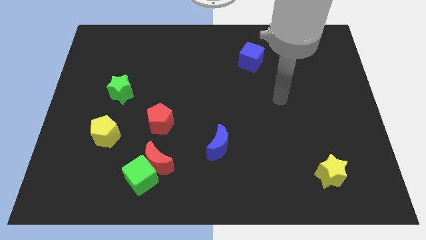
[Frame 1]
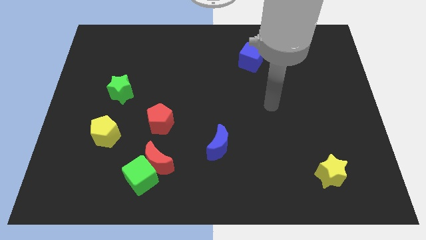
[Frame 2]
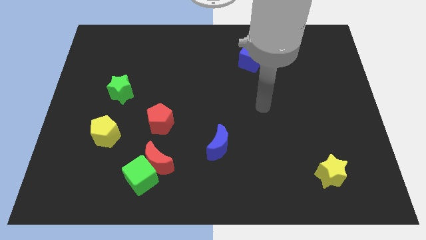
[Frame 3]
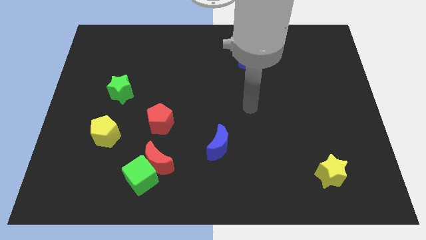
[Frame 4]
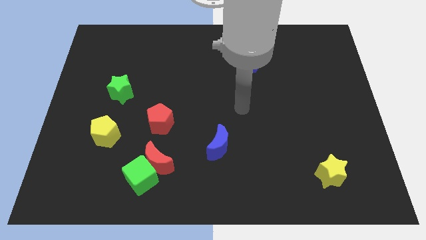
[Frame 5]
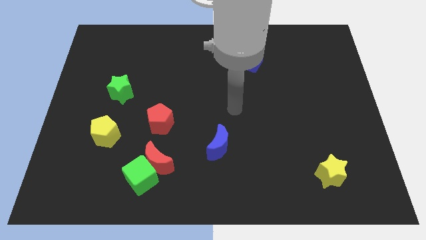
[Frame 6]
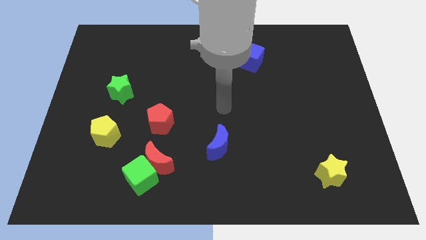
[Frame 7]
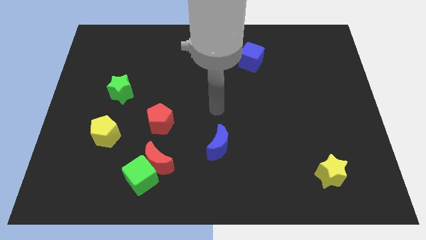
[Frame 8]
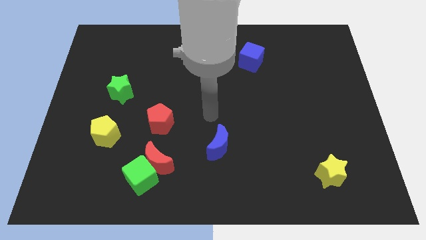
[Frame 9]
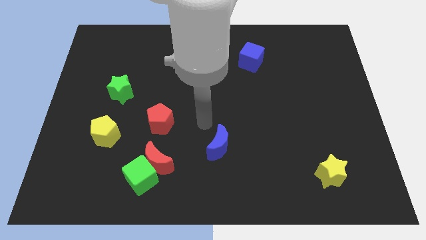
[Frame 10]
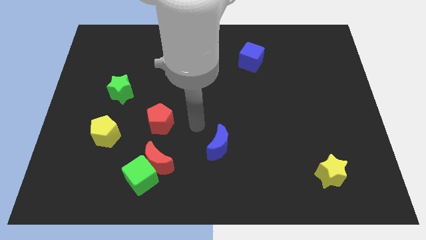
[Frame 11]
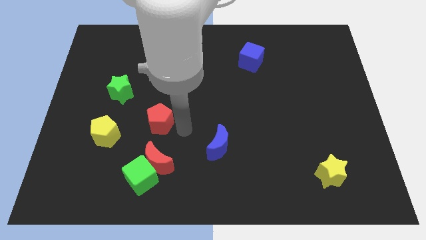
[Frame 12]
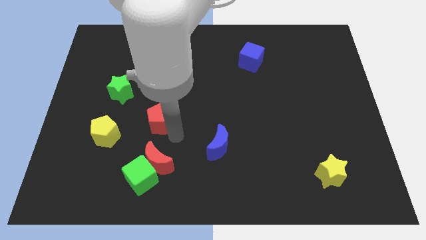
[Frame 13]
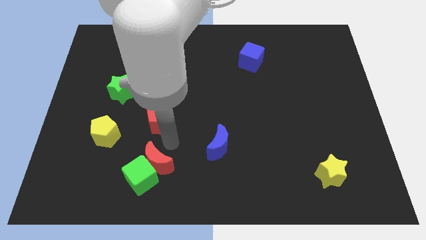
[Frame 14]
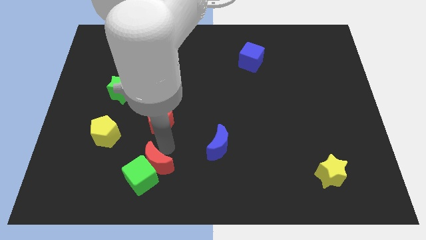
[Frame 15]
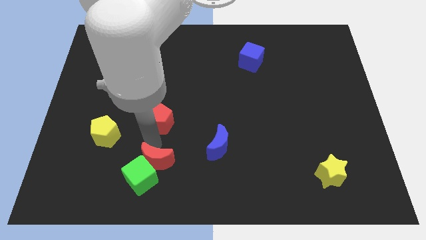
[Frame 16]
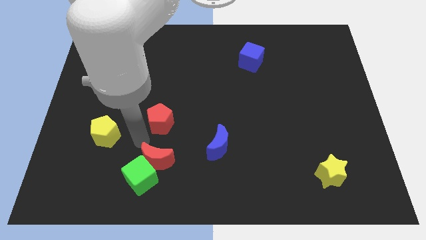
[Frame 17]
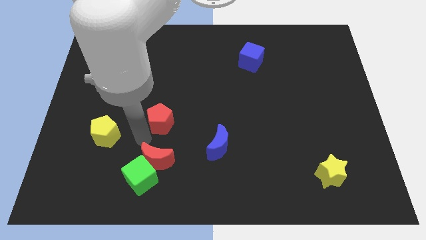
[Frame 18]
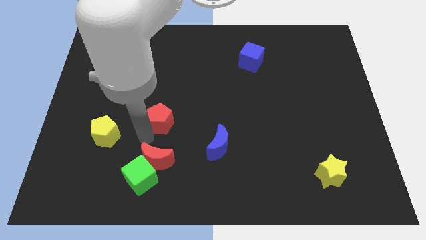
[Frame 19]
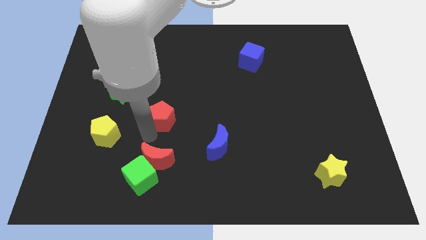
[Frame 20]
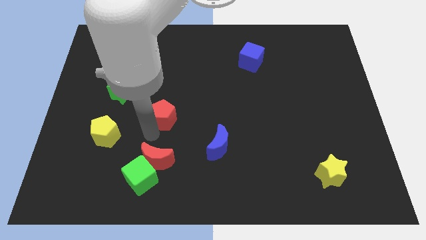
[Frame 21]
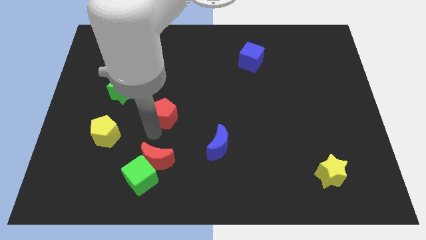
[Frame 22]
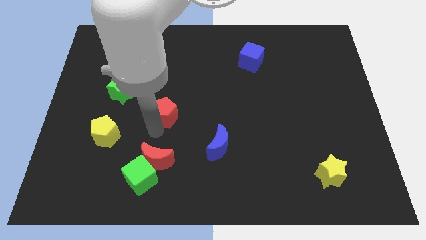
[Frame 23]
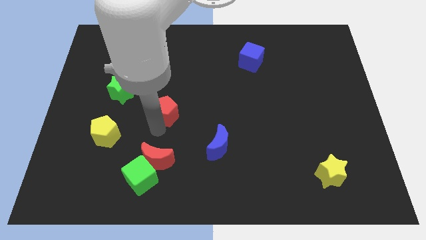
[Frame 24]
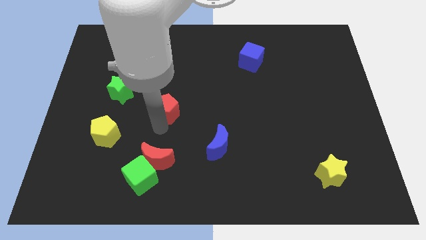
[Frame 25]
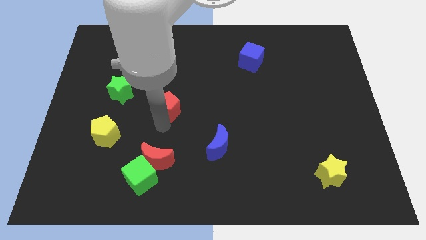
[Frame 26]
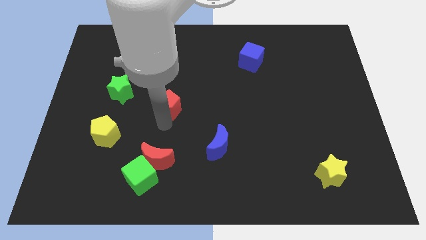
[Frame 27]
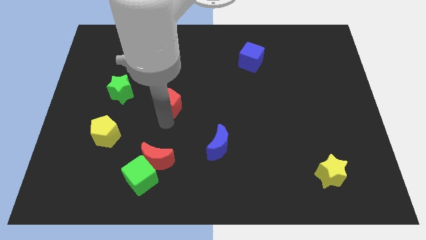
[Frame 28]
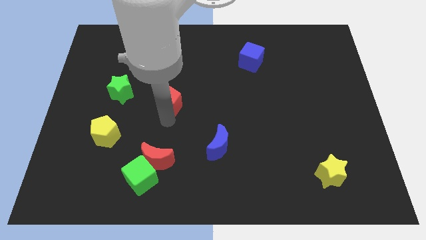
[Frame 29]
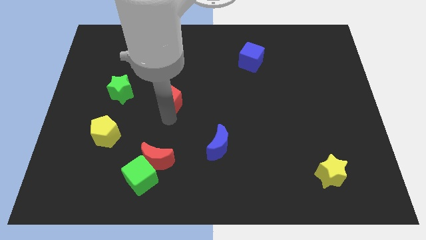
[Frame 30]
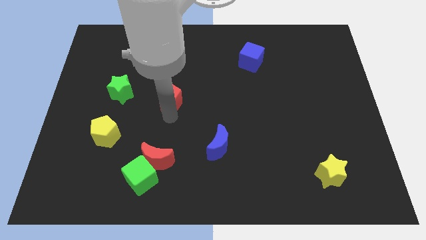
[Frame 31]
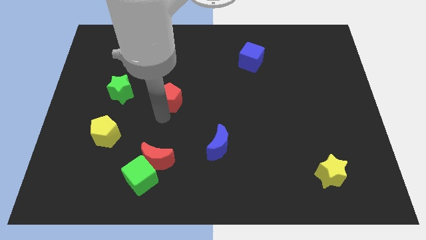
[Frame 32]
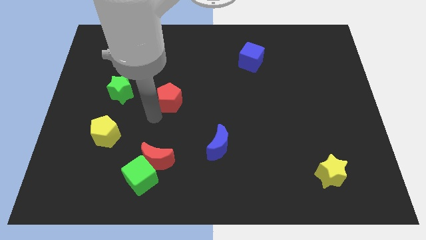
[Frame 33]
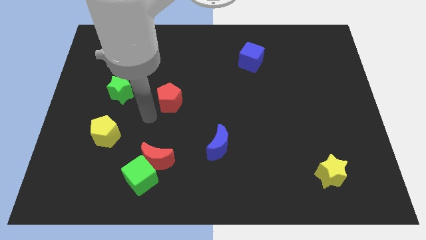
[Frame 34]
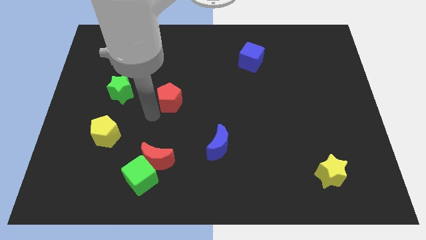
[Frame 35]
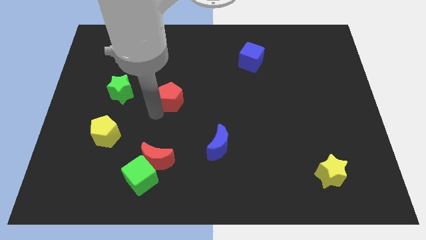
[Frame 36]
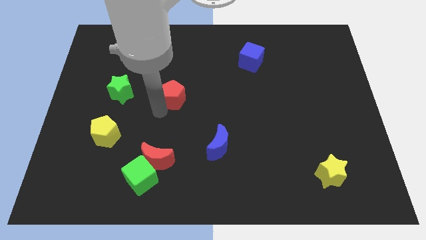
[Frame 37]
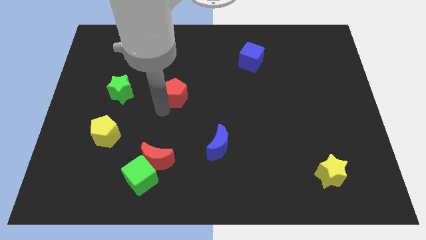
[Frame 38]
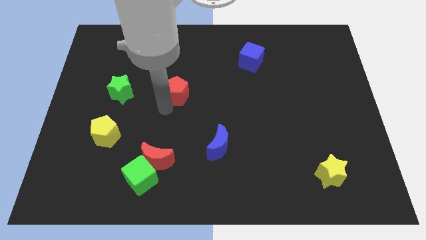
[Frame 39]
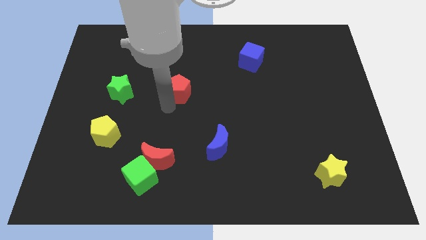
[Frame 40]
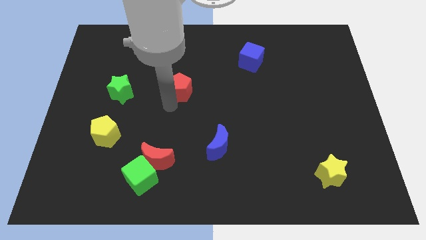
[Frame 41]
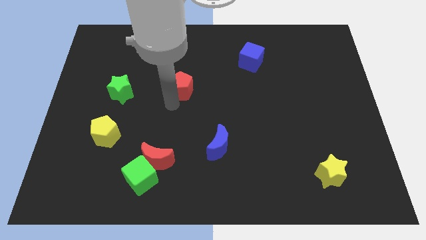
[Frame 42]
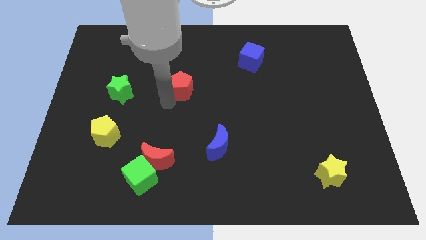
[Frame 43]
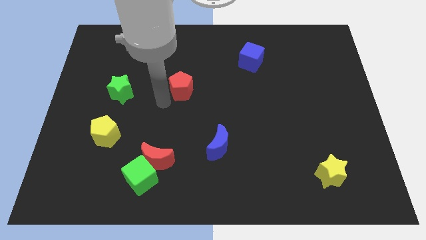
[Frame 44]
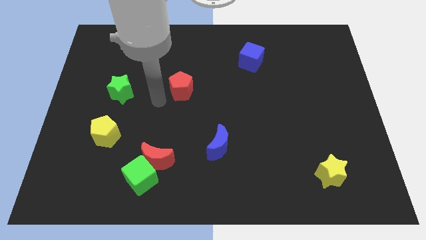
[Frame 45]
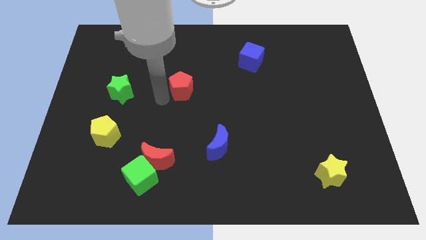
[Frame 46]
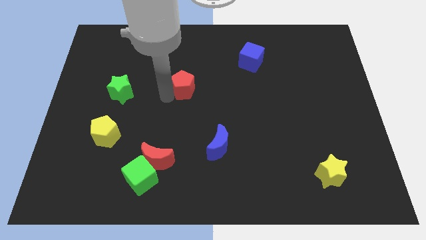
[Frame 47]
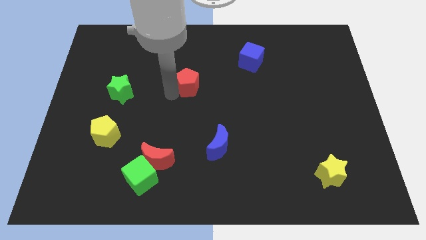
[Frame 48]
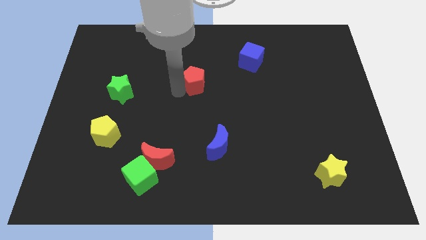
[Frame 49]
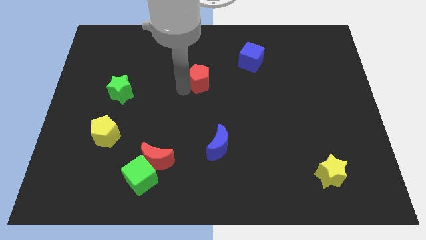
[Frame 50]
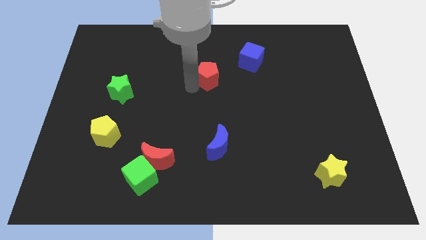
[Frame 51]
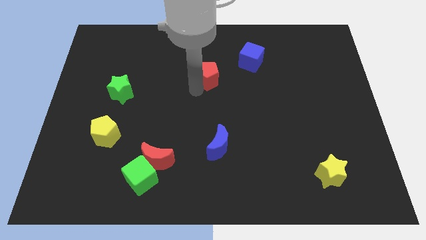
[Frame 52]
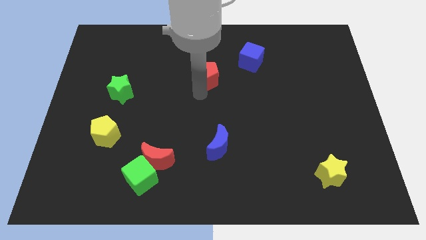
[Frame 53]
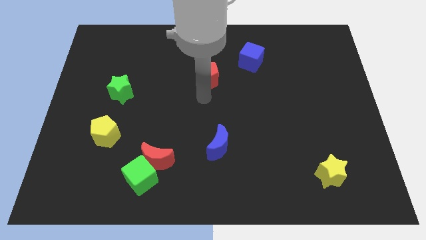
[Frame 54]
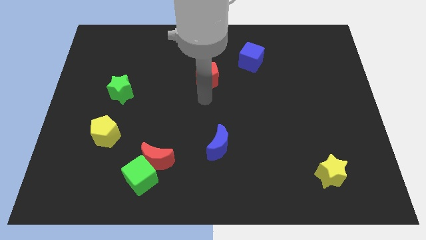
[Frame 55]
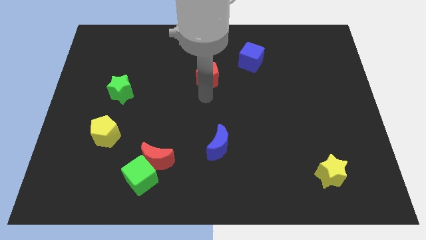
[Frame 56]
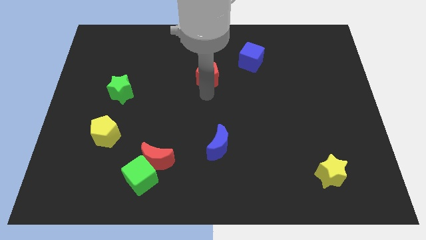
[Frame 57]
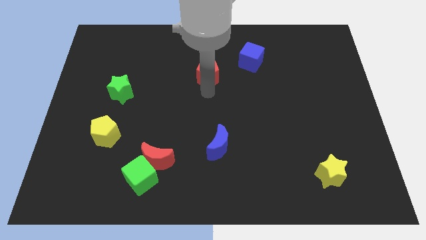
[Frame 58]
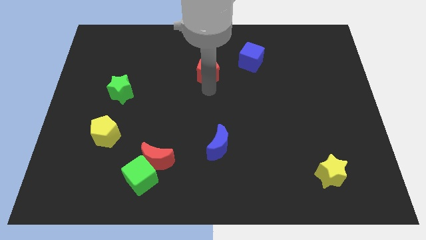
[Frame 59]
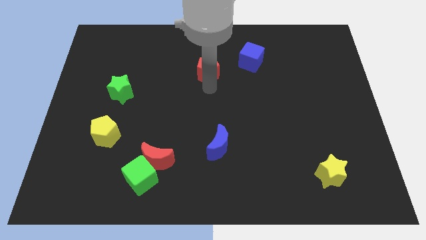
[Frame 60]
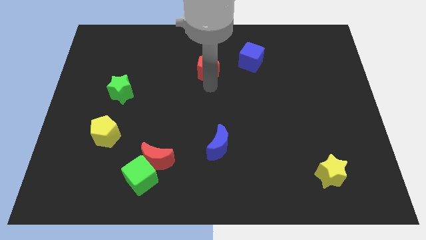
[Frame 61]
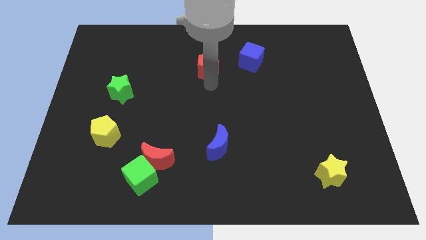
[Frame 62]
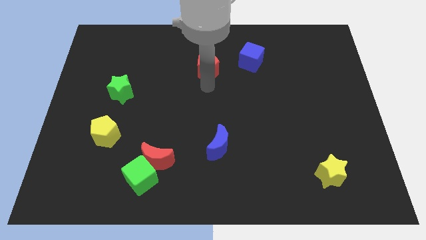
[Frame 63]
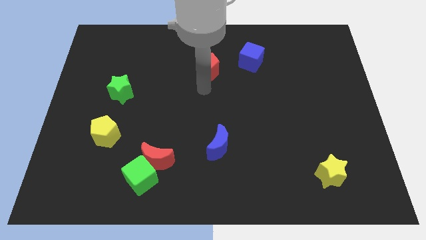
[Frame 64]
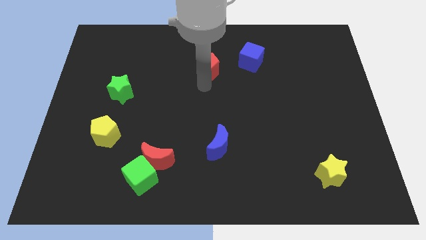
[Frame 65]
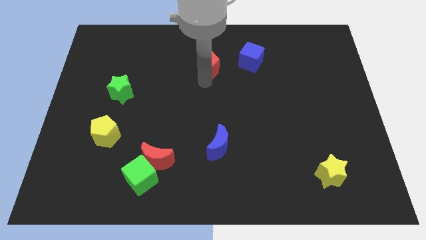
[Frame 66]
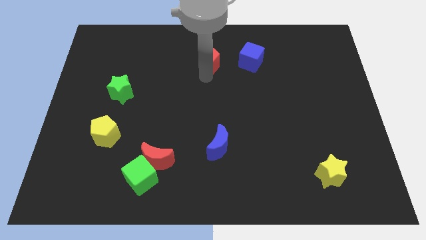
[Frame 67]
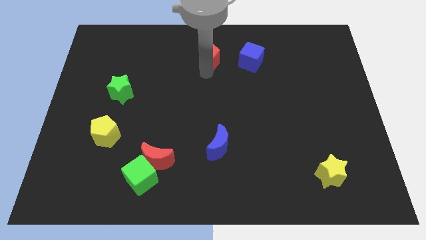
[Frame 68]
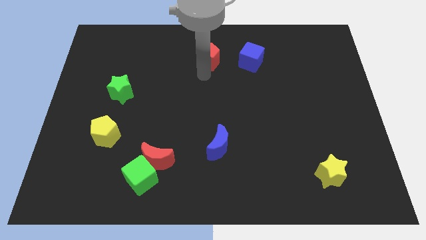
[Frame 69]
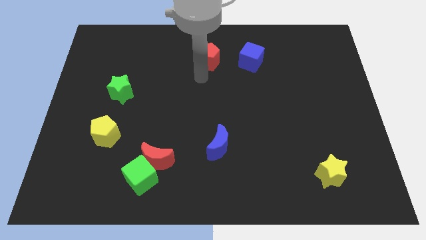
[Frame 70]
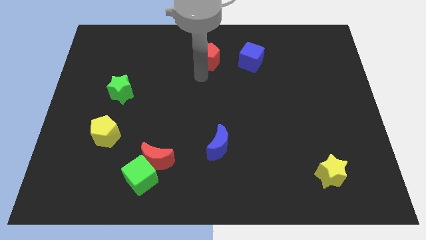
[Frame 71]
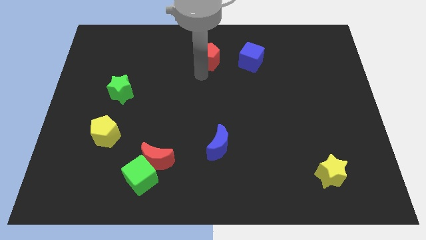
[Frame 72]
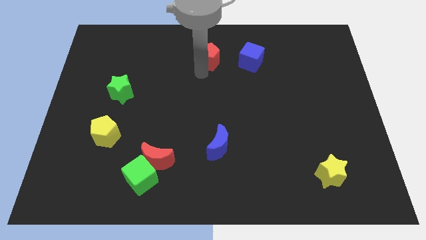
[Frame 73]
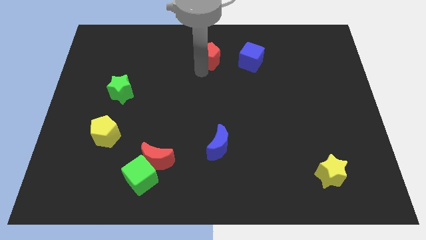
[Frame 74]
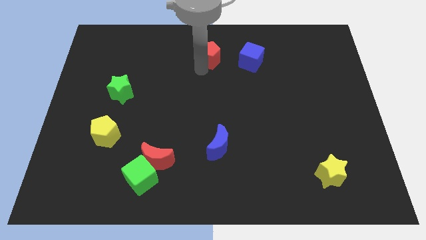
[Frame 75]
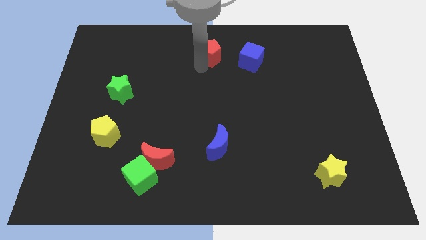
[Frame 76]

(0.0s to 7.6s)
put the red pentagon to the top
